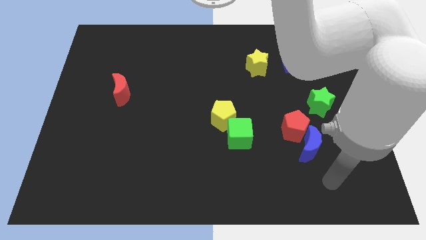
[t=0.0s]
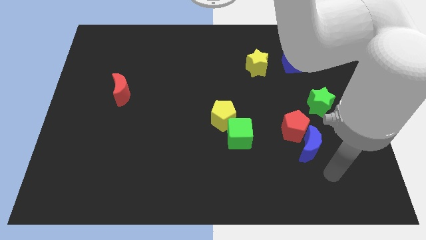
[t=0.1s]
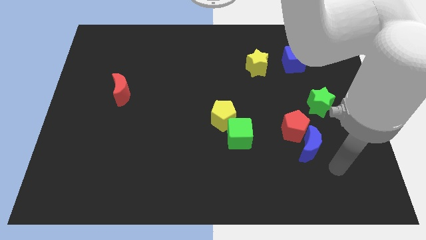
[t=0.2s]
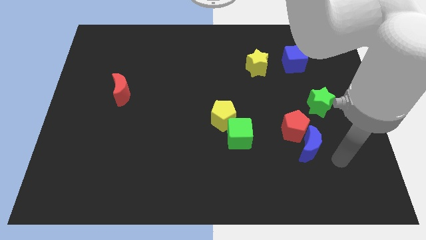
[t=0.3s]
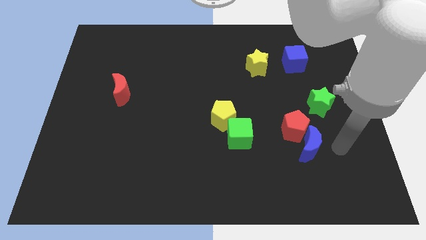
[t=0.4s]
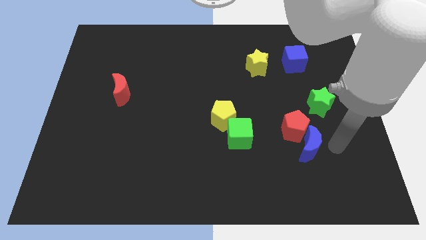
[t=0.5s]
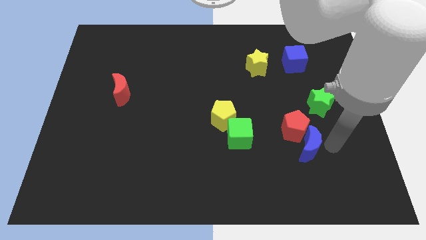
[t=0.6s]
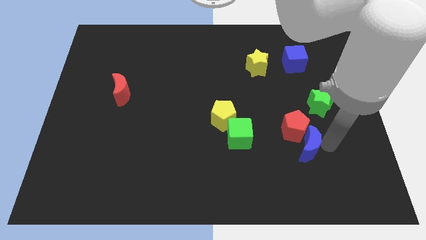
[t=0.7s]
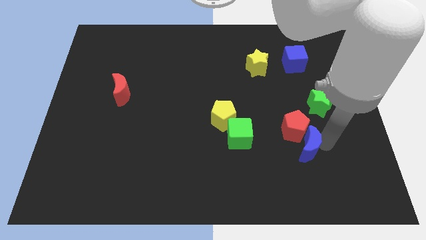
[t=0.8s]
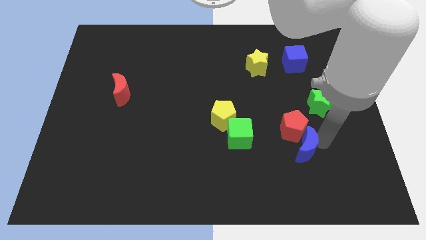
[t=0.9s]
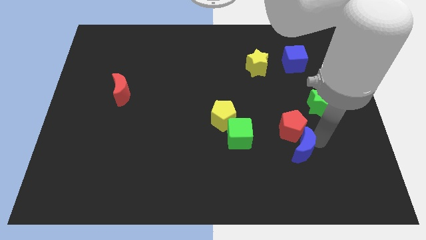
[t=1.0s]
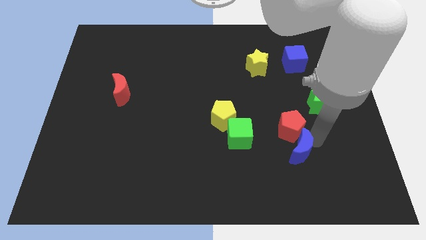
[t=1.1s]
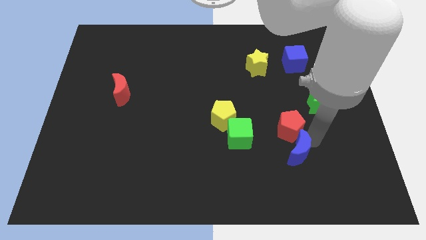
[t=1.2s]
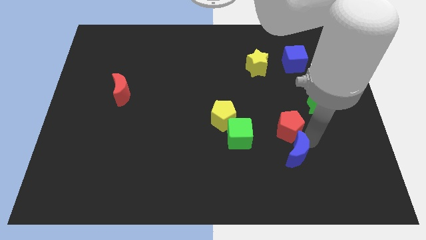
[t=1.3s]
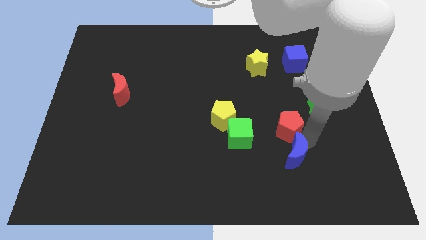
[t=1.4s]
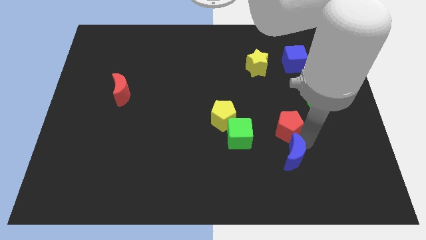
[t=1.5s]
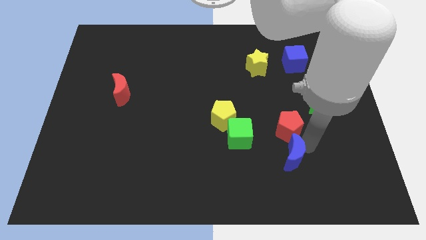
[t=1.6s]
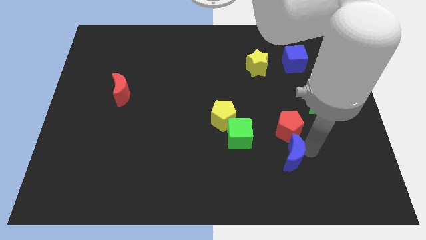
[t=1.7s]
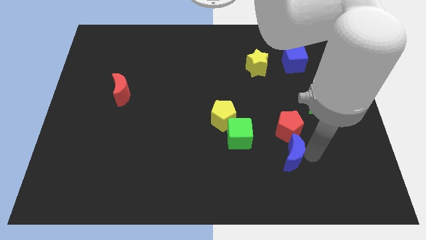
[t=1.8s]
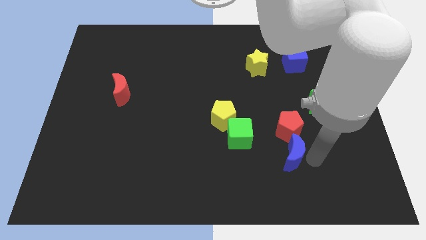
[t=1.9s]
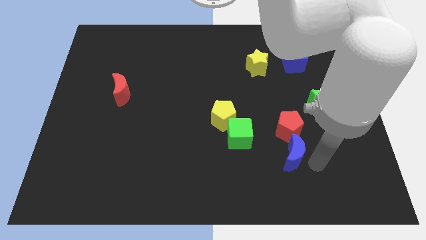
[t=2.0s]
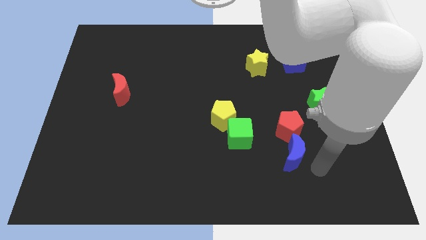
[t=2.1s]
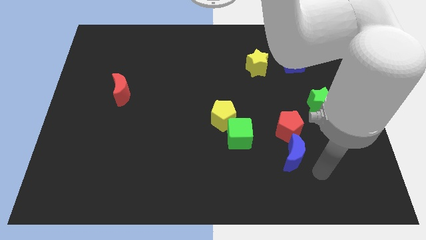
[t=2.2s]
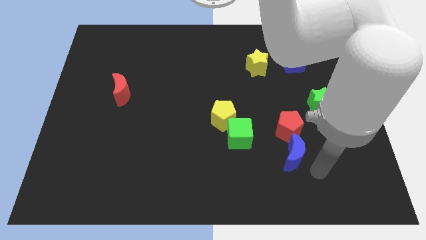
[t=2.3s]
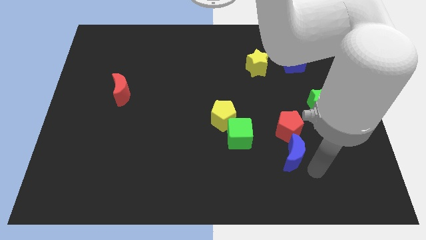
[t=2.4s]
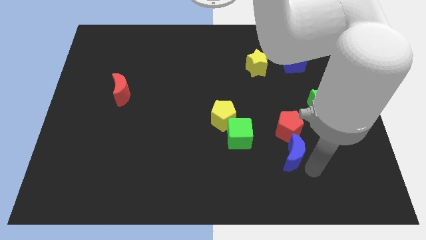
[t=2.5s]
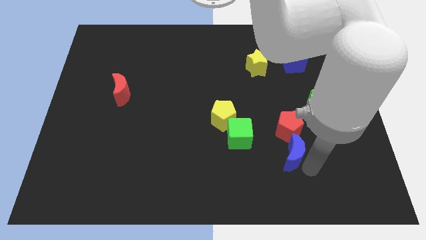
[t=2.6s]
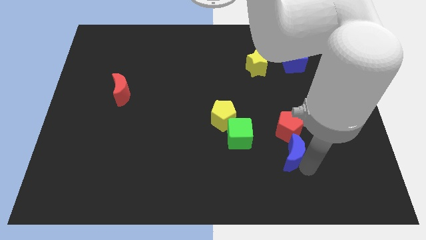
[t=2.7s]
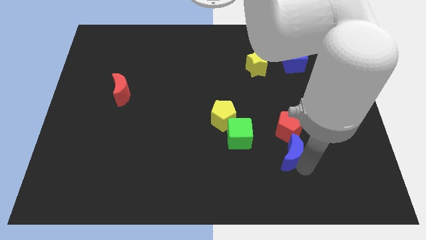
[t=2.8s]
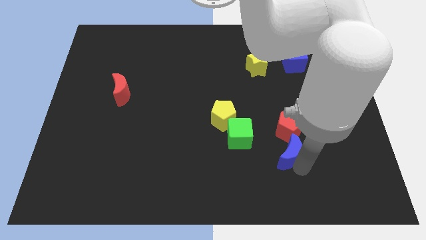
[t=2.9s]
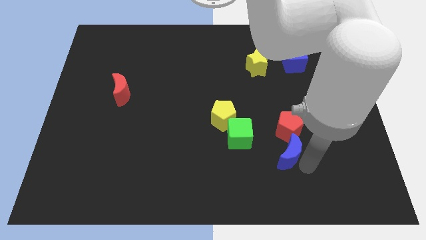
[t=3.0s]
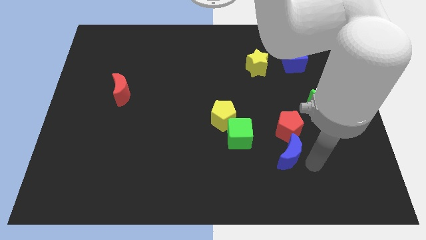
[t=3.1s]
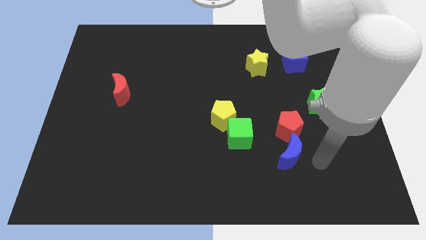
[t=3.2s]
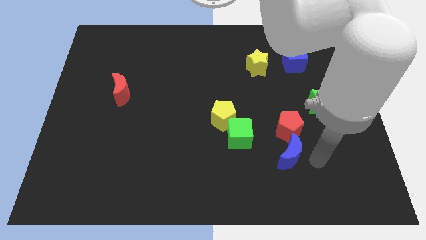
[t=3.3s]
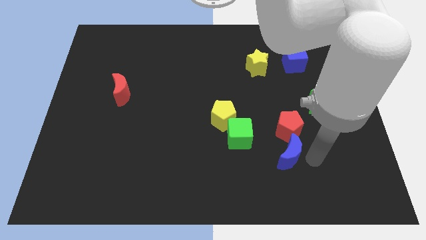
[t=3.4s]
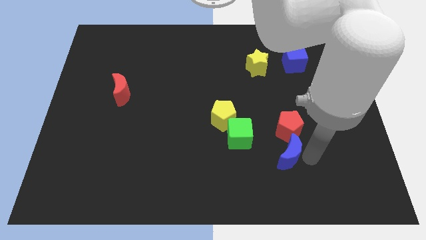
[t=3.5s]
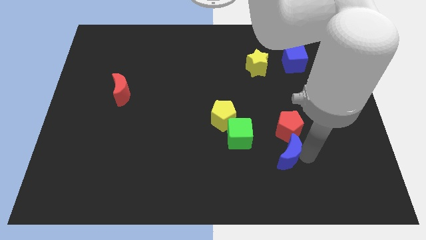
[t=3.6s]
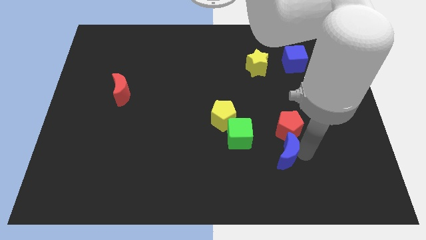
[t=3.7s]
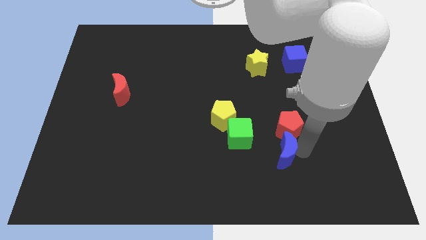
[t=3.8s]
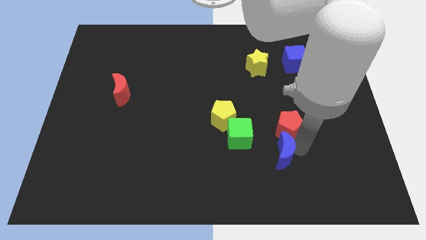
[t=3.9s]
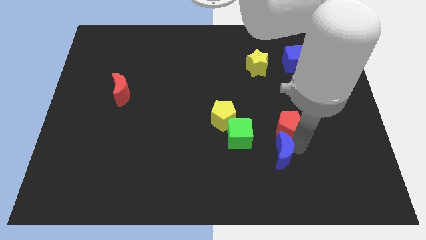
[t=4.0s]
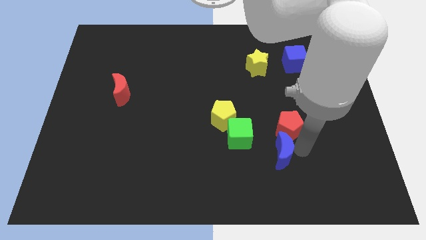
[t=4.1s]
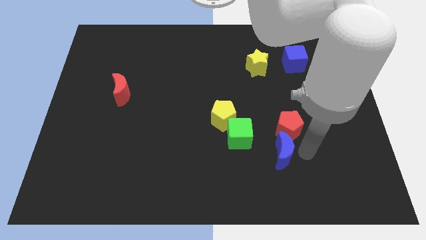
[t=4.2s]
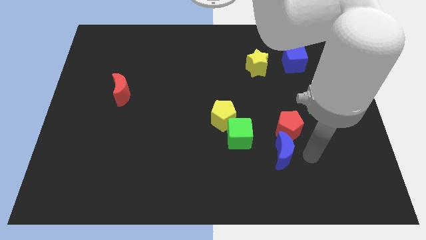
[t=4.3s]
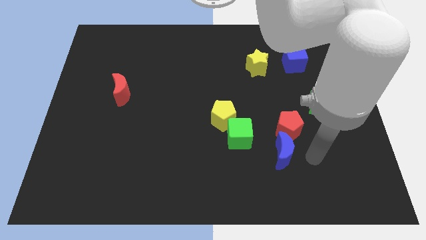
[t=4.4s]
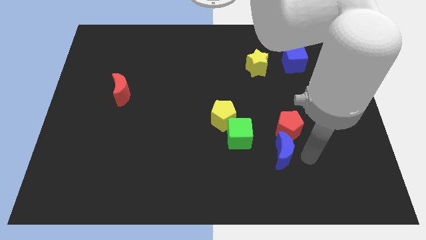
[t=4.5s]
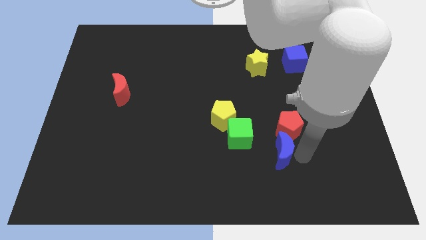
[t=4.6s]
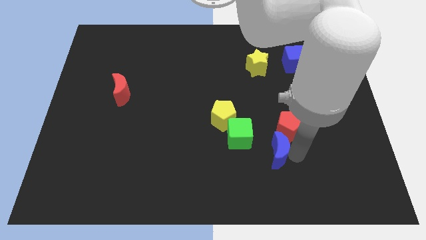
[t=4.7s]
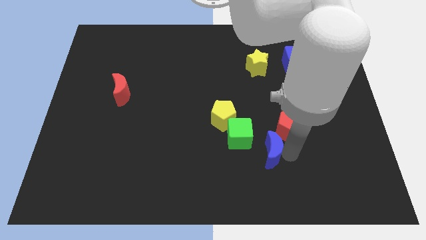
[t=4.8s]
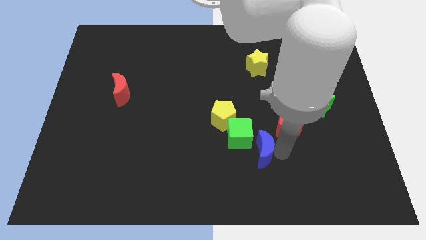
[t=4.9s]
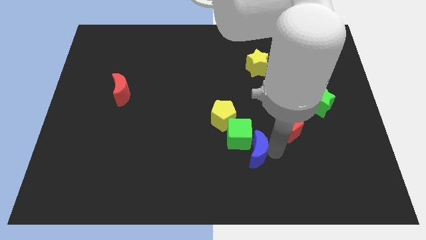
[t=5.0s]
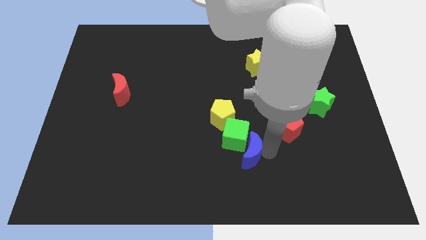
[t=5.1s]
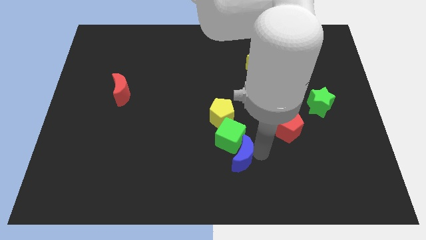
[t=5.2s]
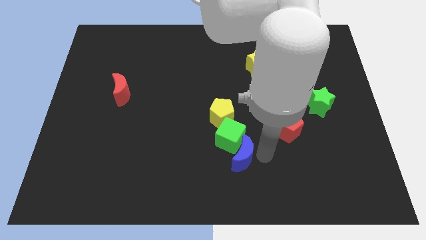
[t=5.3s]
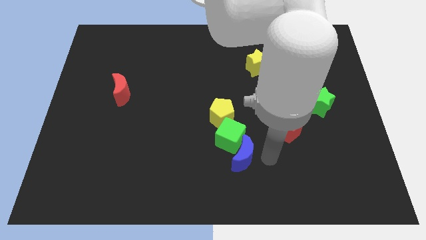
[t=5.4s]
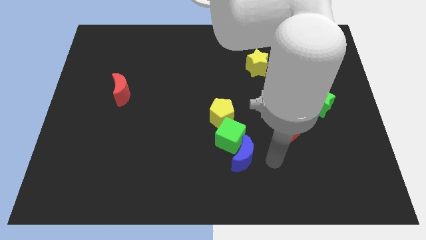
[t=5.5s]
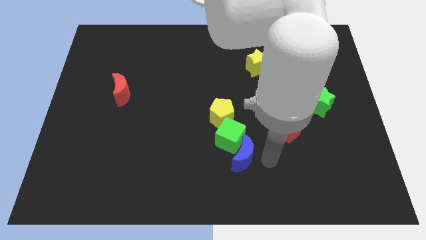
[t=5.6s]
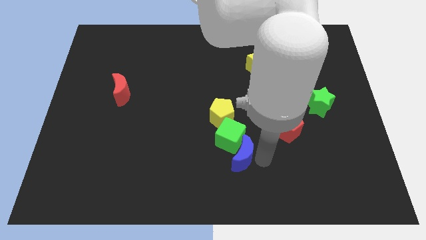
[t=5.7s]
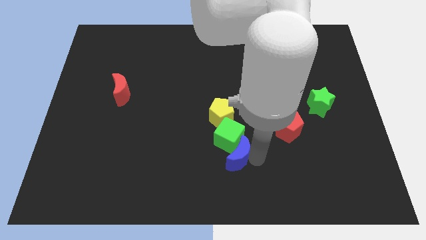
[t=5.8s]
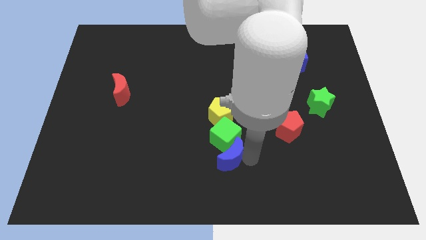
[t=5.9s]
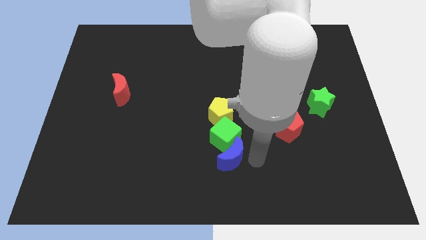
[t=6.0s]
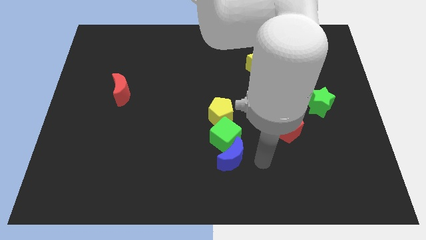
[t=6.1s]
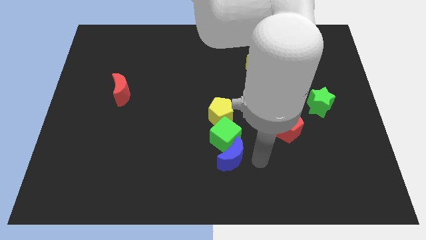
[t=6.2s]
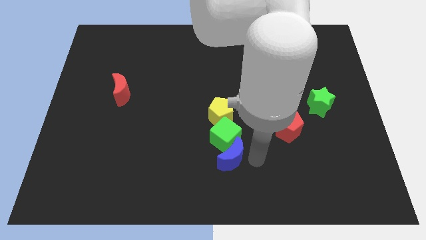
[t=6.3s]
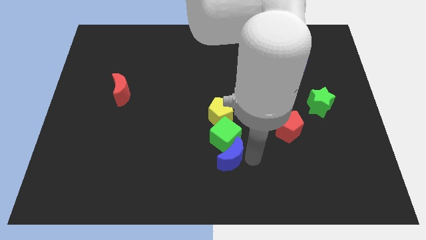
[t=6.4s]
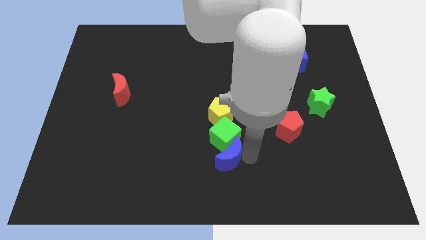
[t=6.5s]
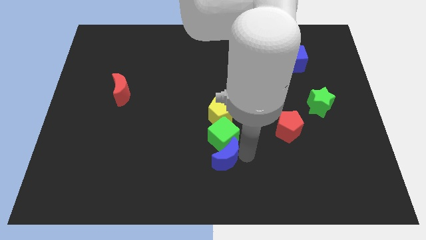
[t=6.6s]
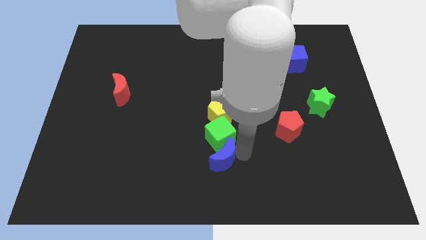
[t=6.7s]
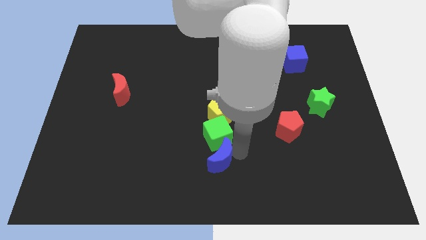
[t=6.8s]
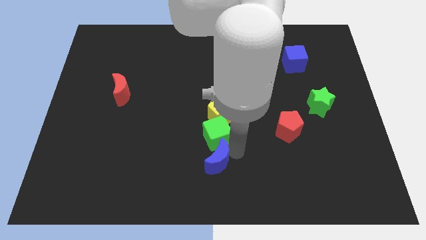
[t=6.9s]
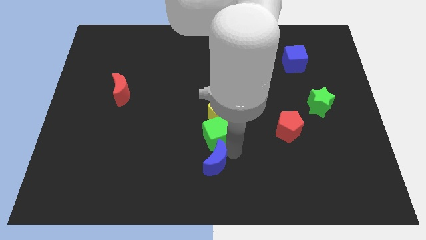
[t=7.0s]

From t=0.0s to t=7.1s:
move the blue moon to the left

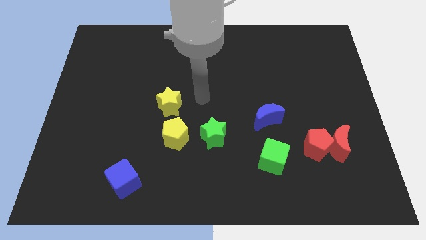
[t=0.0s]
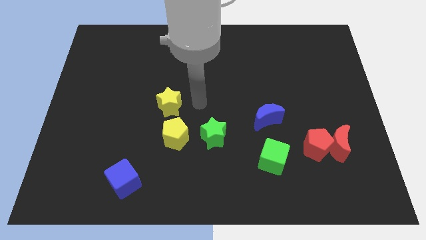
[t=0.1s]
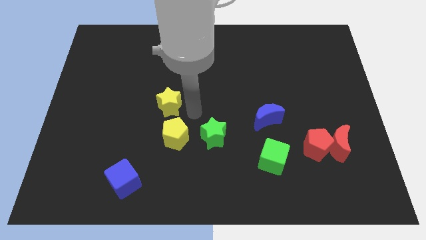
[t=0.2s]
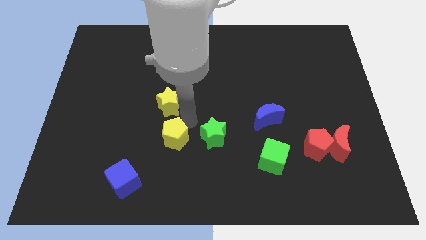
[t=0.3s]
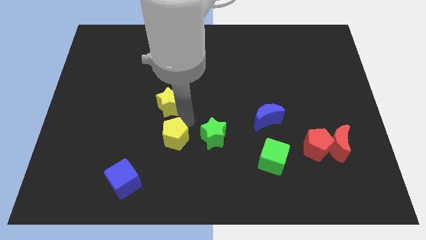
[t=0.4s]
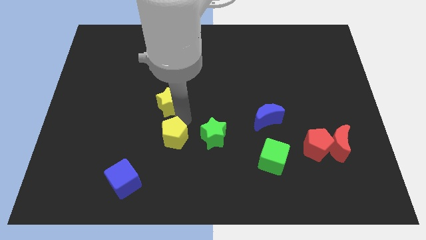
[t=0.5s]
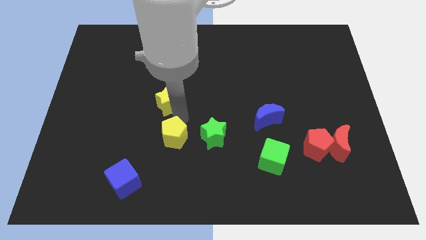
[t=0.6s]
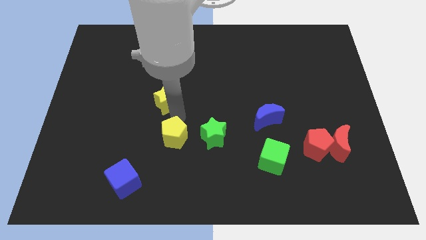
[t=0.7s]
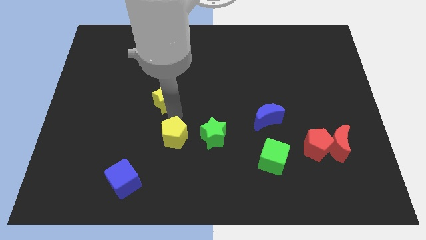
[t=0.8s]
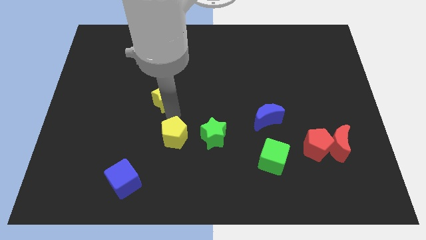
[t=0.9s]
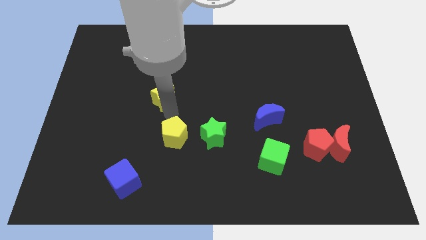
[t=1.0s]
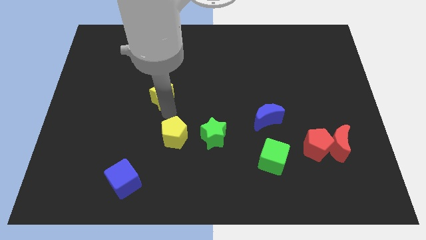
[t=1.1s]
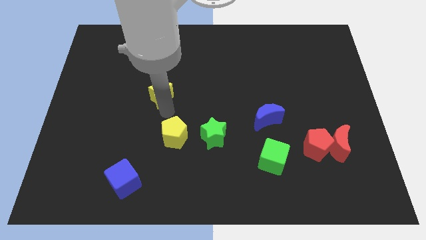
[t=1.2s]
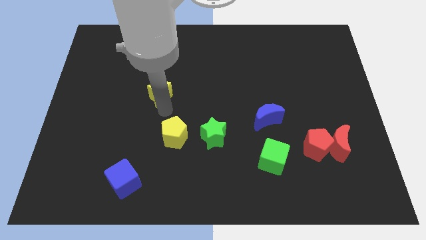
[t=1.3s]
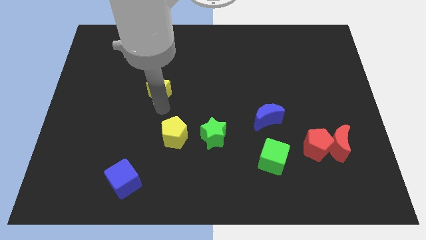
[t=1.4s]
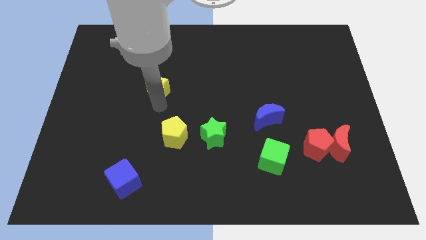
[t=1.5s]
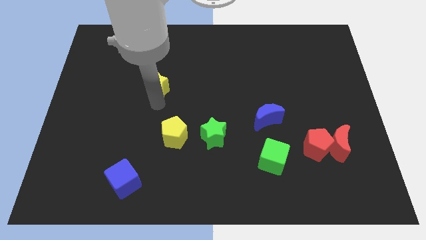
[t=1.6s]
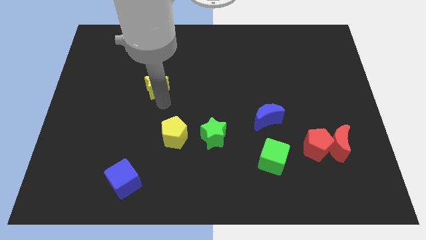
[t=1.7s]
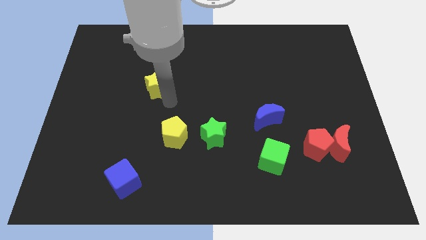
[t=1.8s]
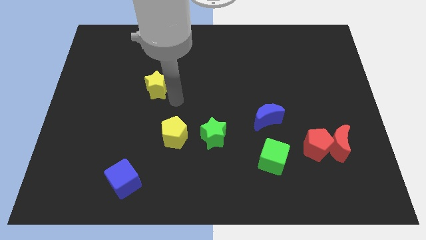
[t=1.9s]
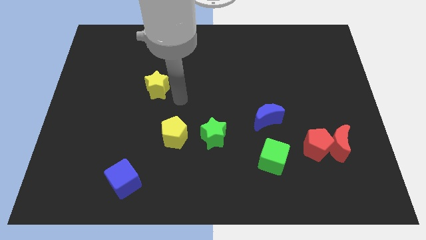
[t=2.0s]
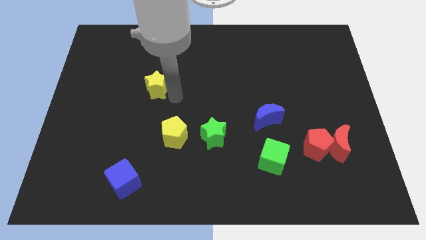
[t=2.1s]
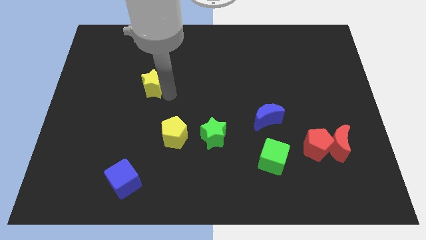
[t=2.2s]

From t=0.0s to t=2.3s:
slide the yellow star upwards and then left slightly
